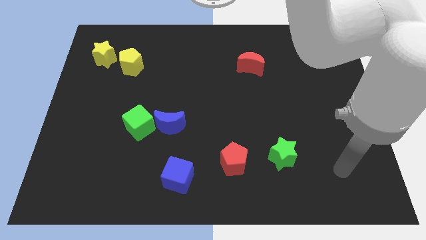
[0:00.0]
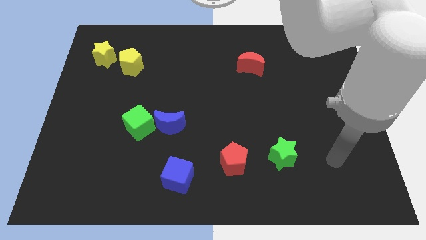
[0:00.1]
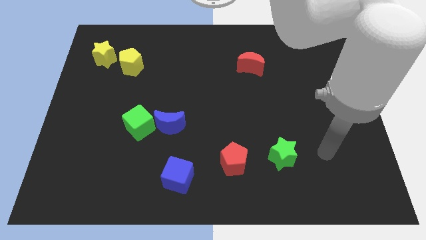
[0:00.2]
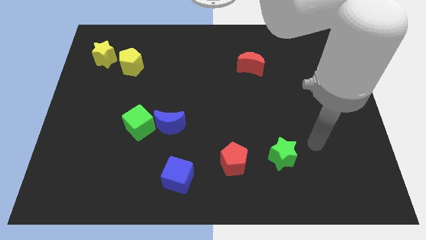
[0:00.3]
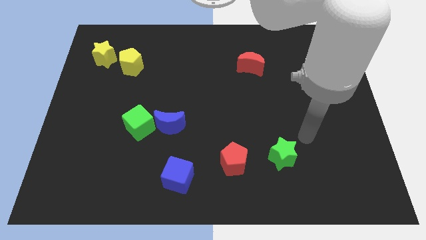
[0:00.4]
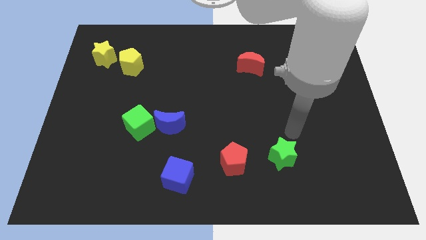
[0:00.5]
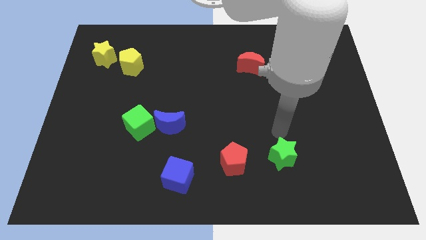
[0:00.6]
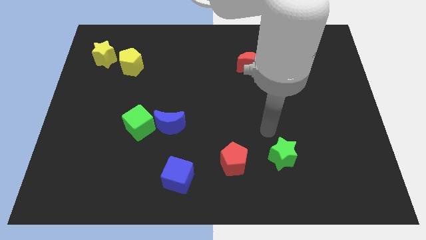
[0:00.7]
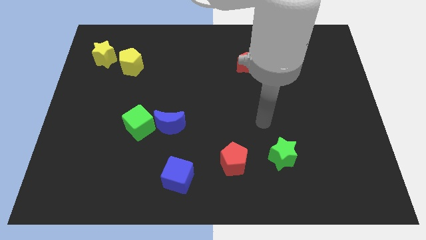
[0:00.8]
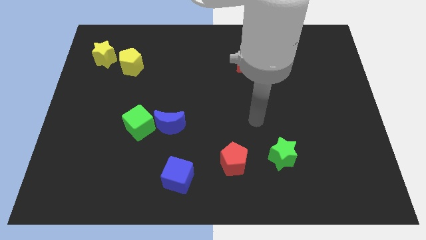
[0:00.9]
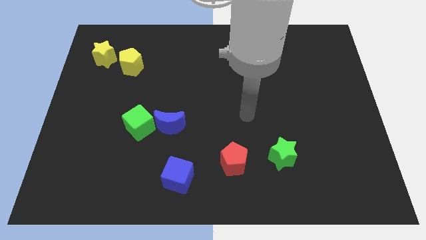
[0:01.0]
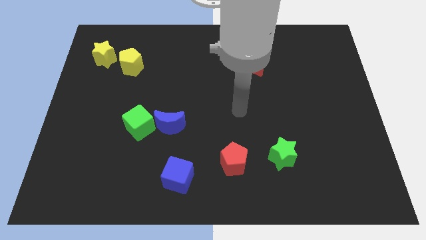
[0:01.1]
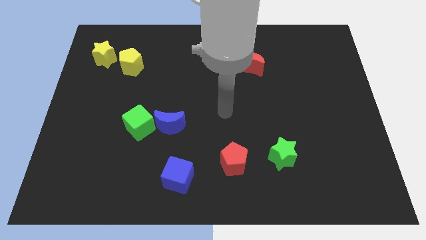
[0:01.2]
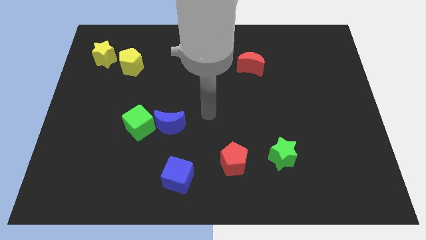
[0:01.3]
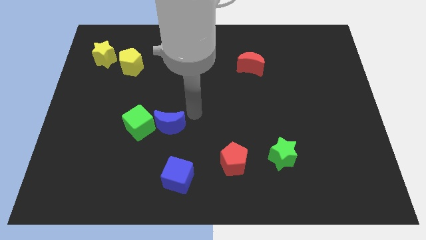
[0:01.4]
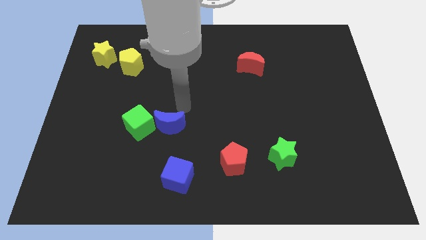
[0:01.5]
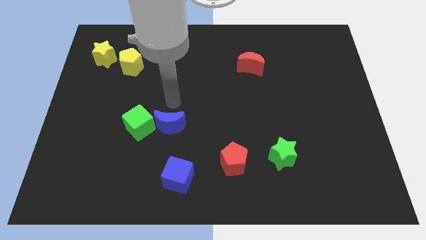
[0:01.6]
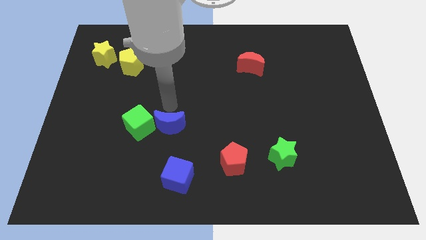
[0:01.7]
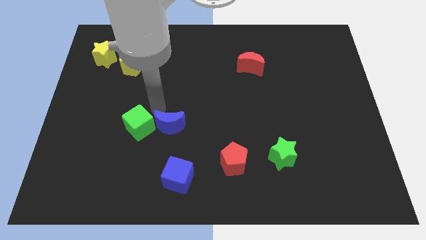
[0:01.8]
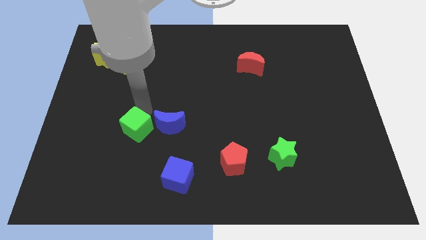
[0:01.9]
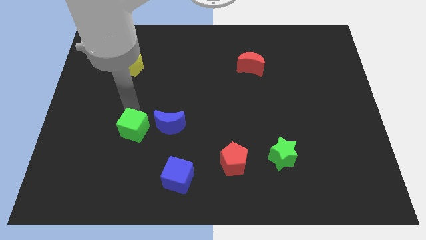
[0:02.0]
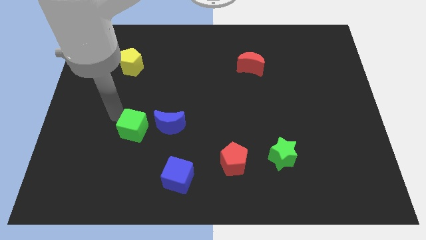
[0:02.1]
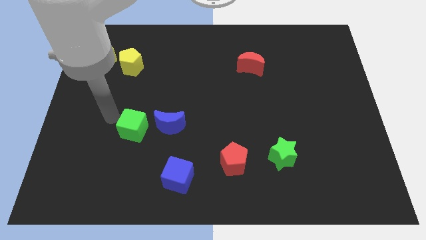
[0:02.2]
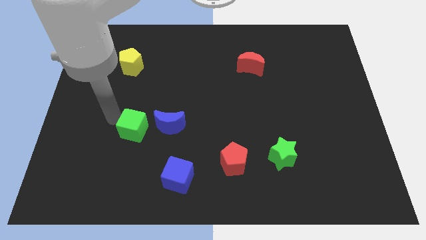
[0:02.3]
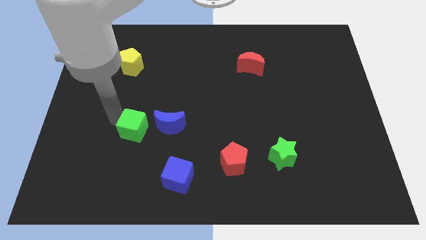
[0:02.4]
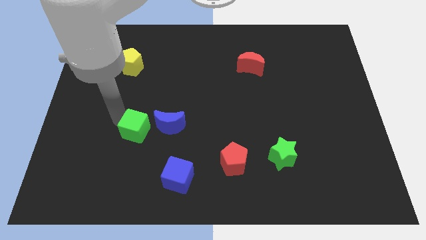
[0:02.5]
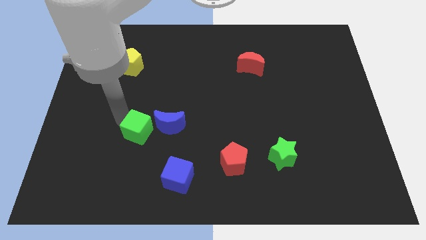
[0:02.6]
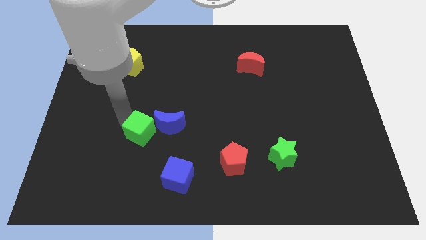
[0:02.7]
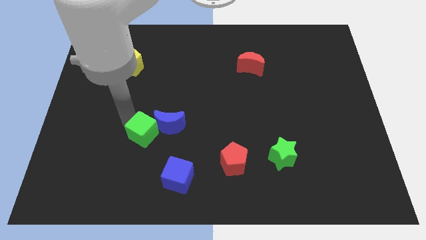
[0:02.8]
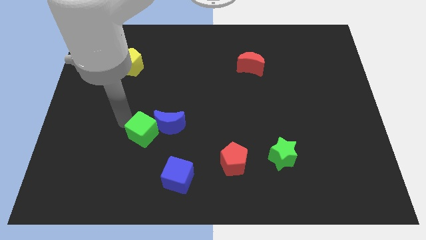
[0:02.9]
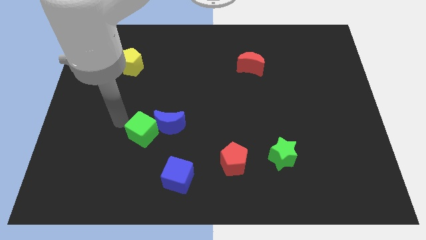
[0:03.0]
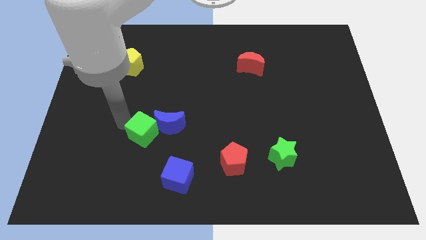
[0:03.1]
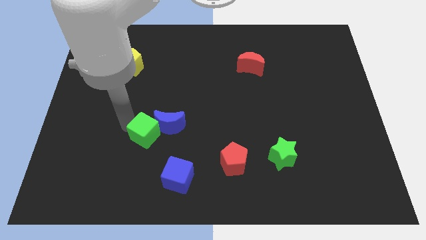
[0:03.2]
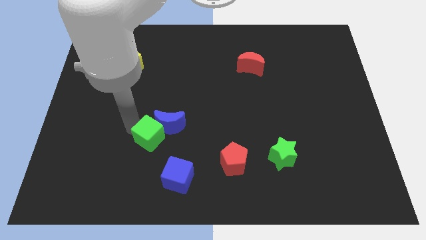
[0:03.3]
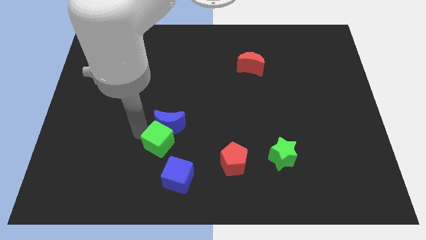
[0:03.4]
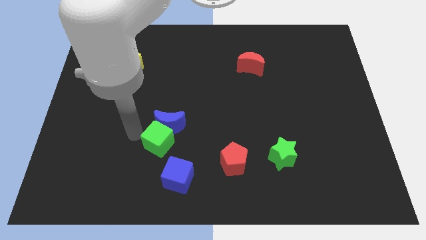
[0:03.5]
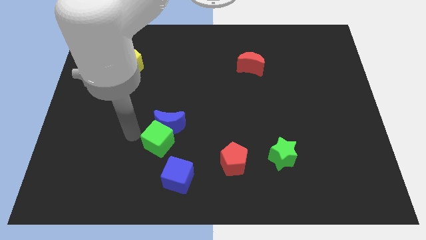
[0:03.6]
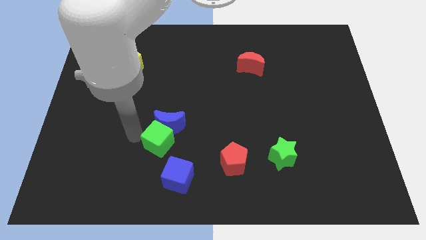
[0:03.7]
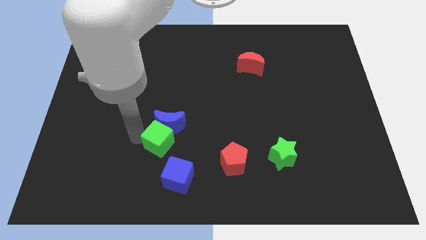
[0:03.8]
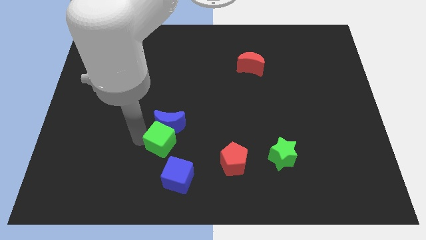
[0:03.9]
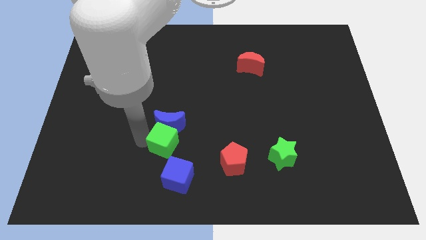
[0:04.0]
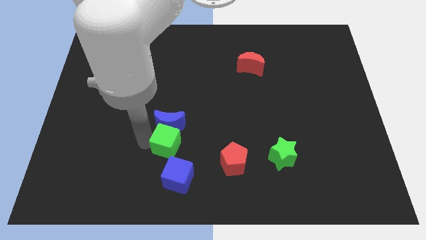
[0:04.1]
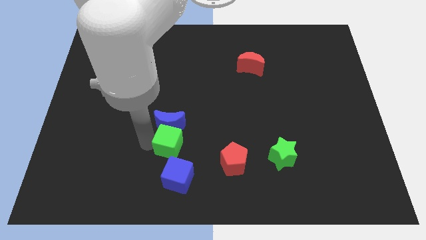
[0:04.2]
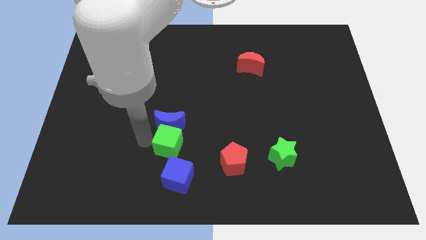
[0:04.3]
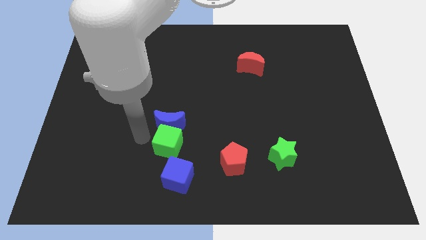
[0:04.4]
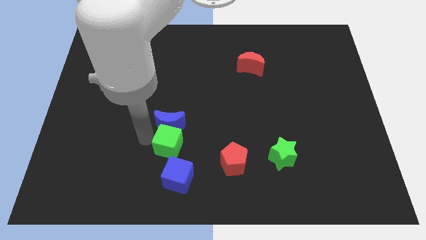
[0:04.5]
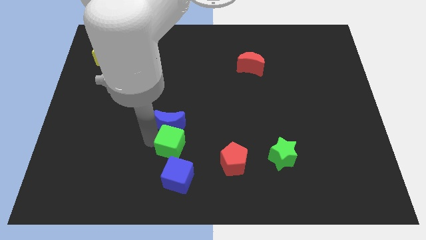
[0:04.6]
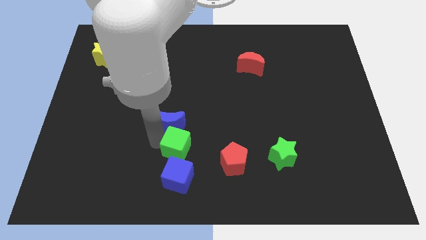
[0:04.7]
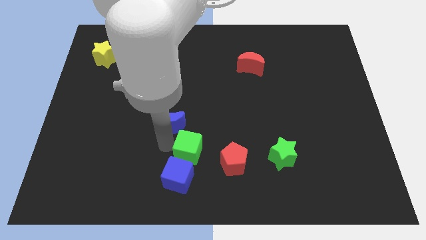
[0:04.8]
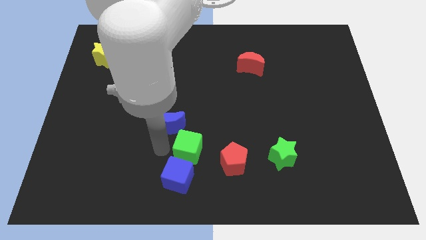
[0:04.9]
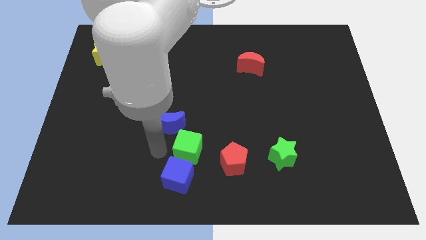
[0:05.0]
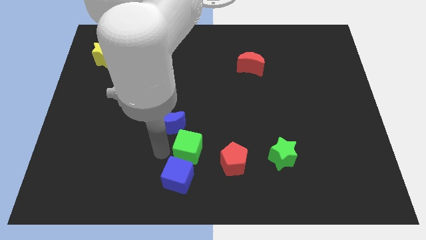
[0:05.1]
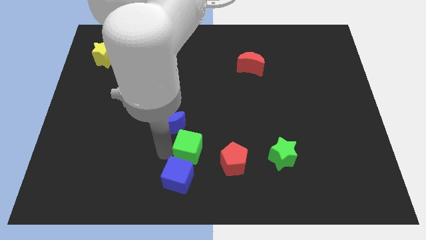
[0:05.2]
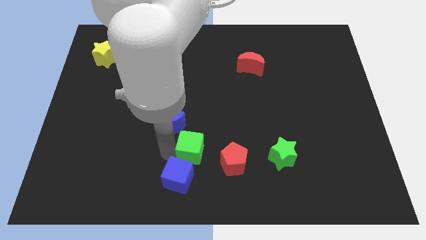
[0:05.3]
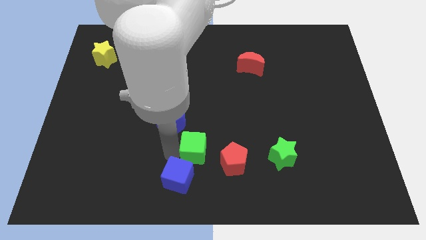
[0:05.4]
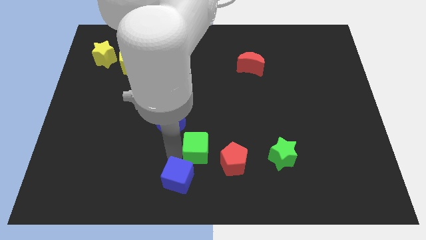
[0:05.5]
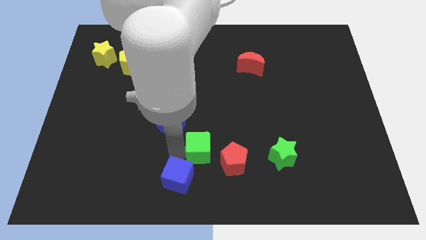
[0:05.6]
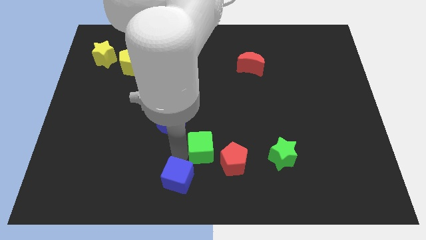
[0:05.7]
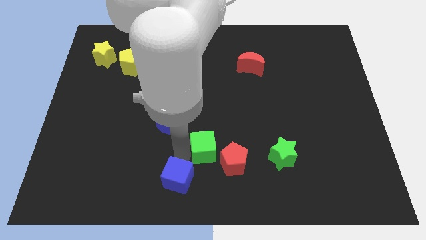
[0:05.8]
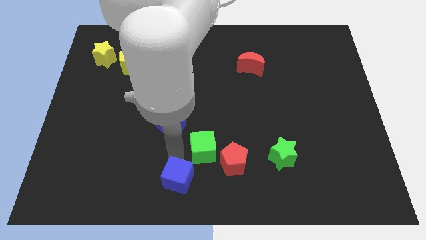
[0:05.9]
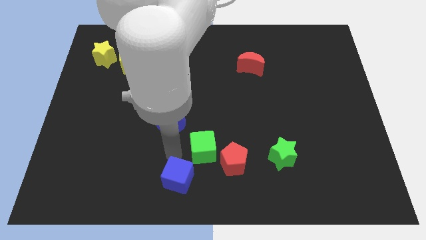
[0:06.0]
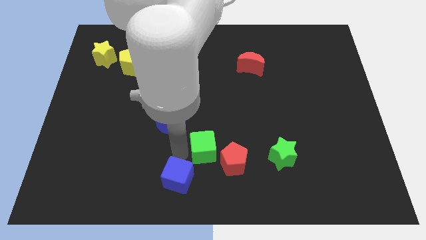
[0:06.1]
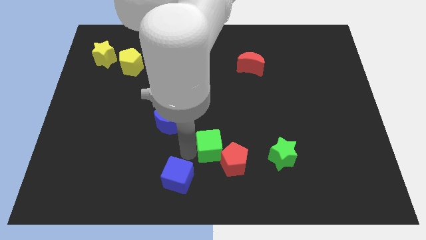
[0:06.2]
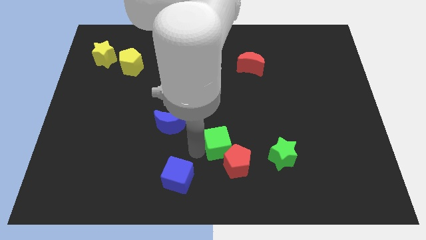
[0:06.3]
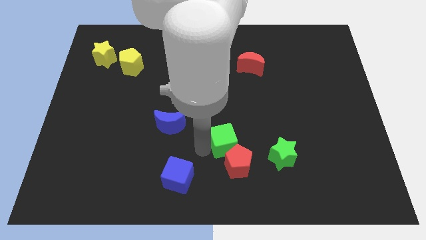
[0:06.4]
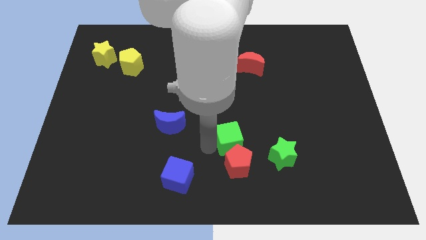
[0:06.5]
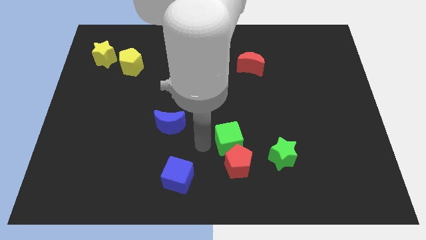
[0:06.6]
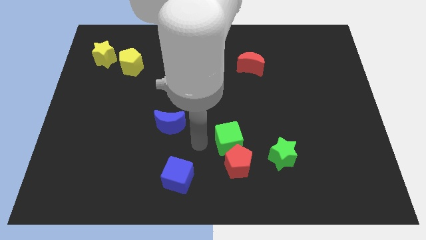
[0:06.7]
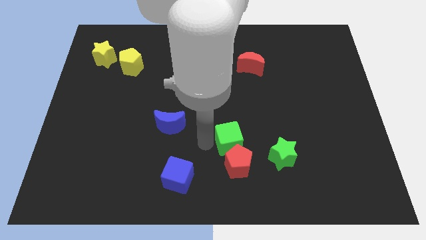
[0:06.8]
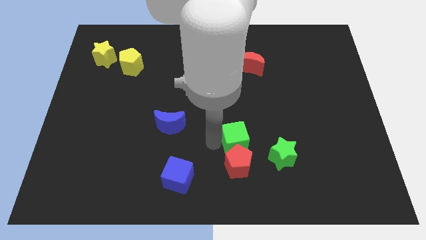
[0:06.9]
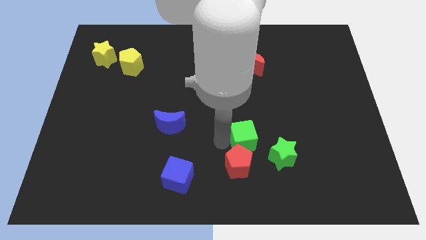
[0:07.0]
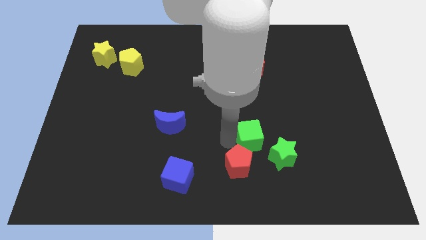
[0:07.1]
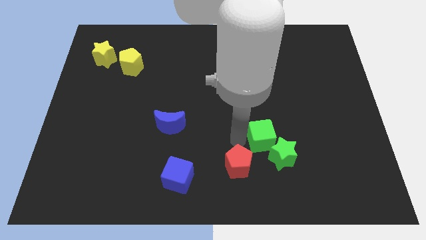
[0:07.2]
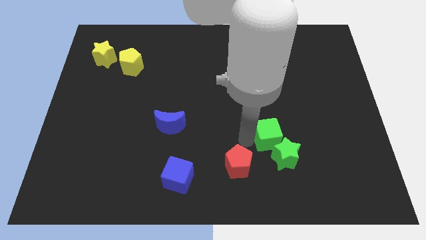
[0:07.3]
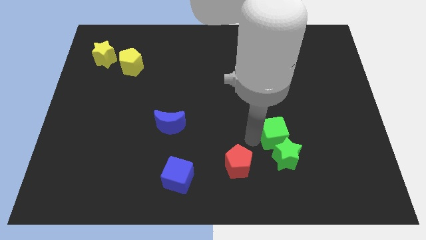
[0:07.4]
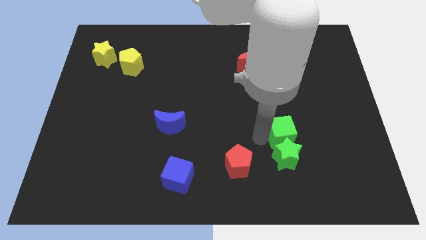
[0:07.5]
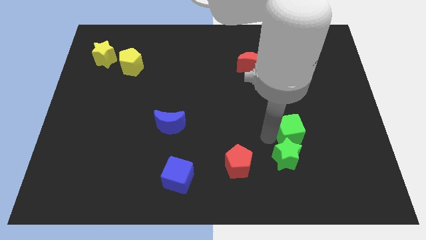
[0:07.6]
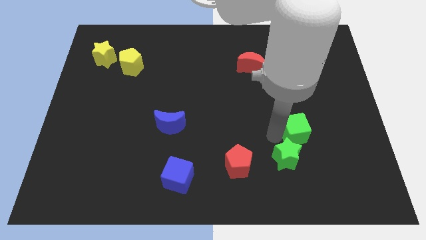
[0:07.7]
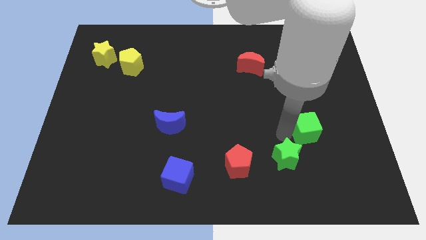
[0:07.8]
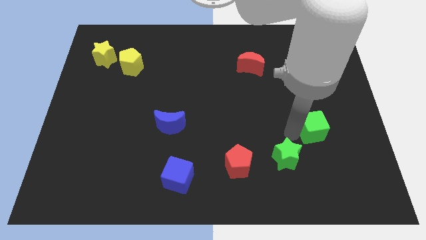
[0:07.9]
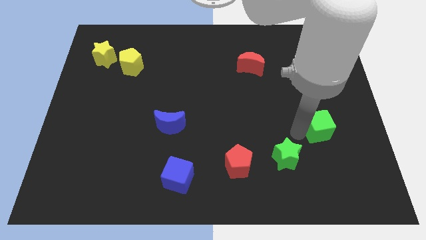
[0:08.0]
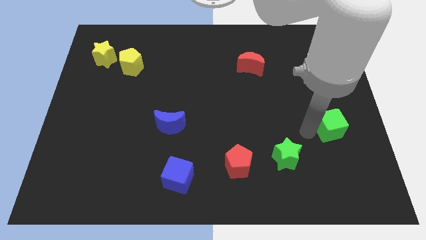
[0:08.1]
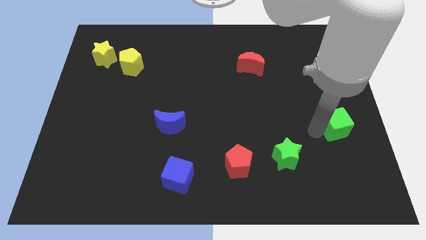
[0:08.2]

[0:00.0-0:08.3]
push the green cube to the center right
